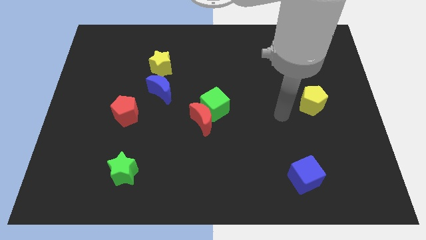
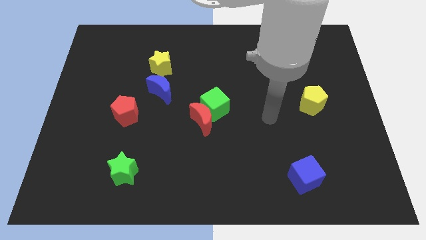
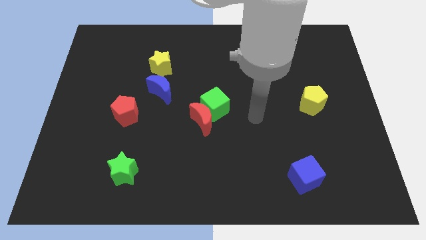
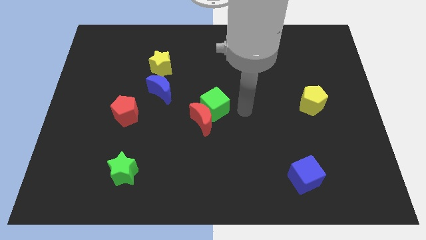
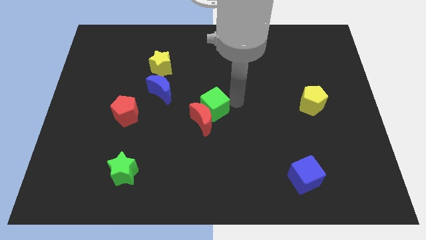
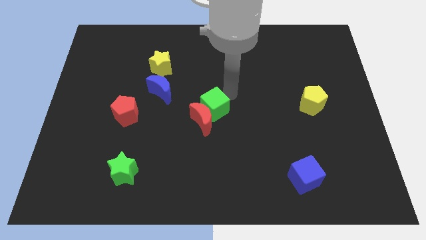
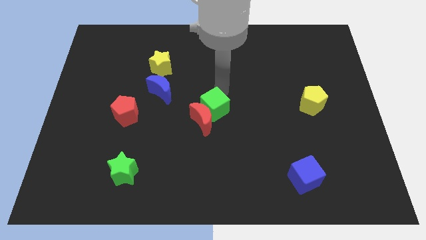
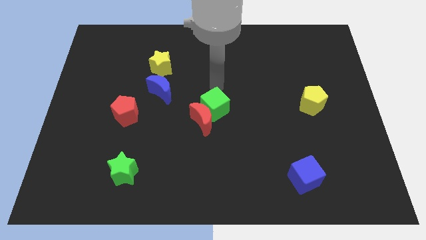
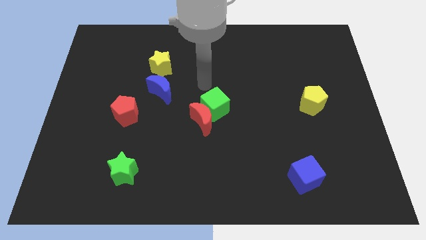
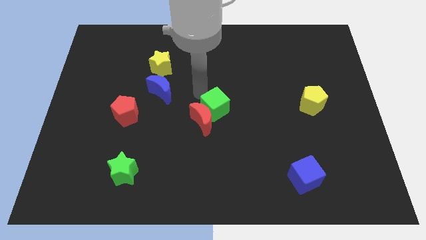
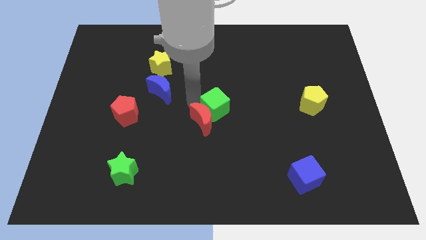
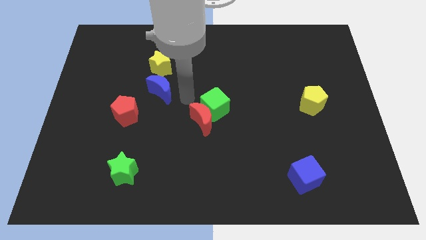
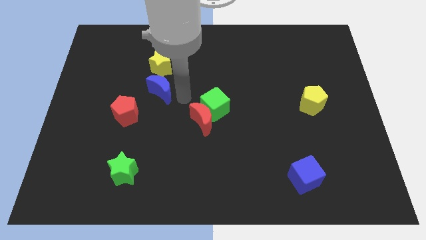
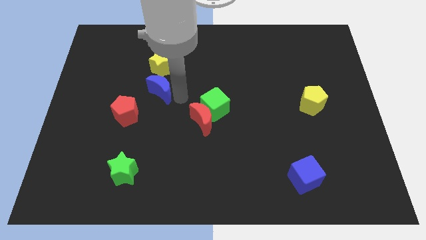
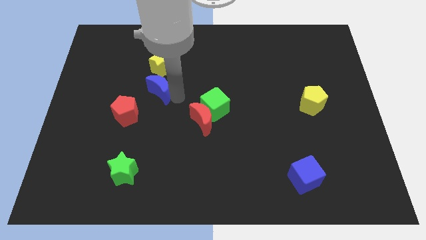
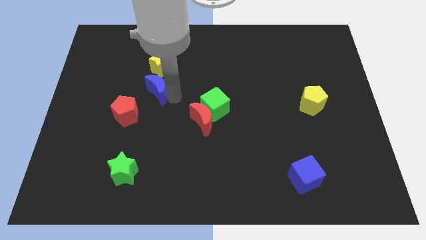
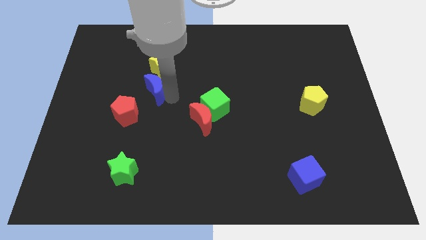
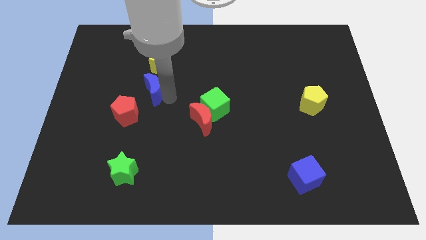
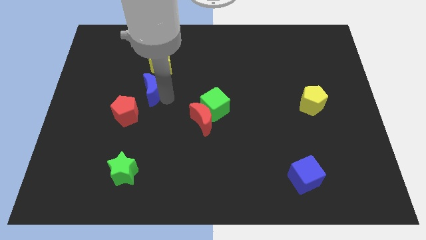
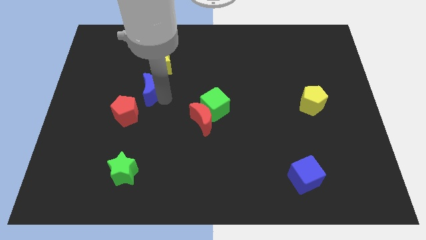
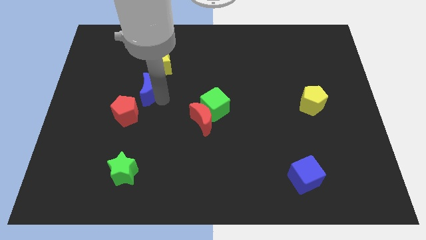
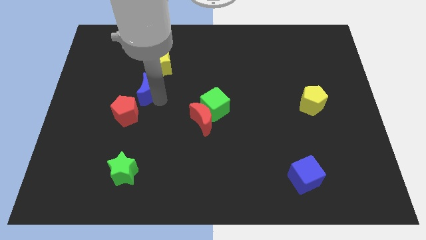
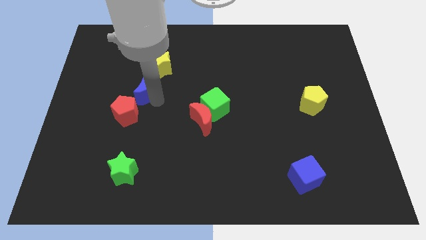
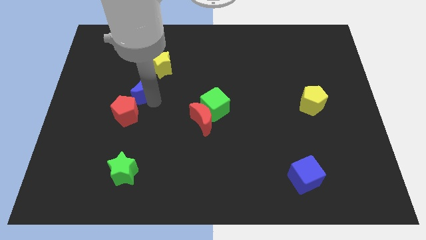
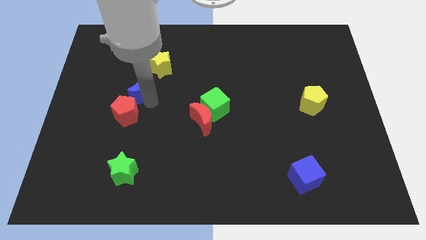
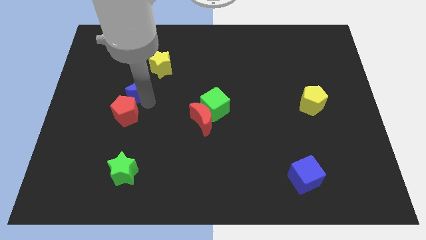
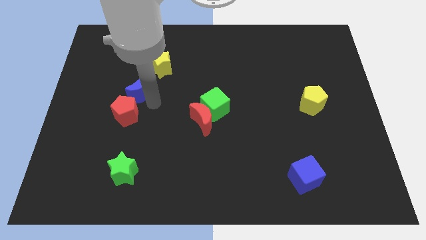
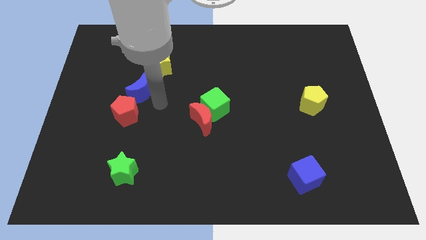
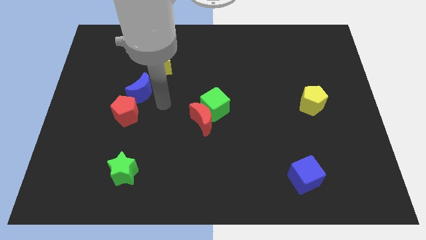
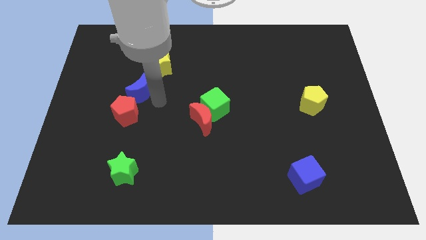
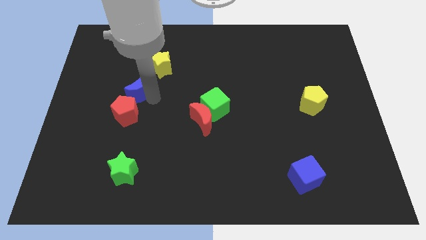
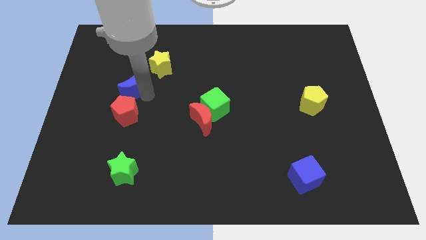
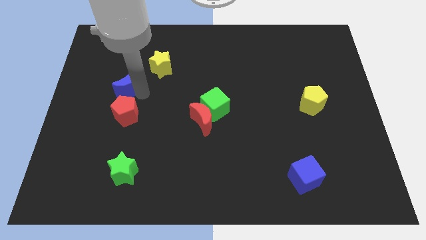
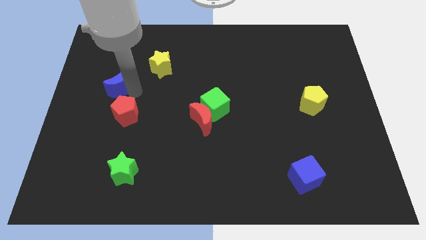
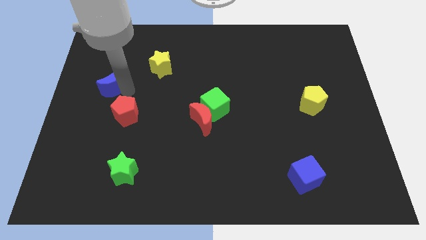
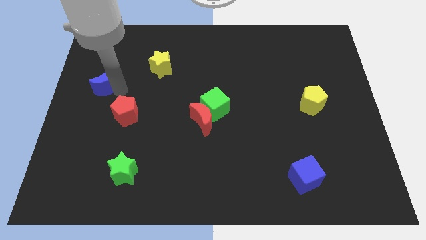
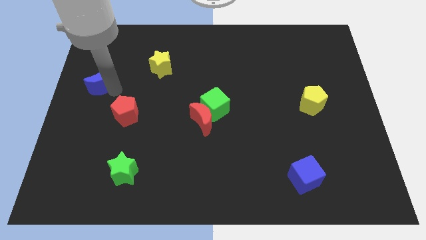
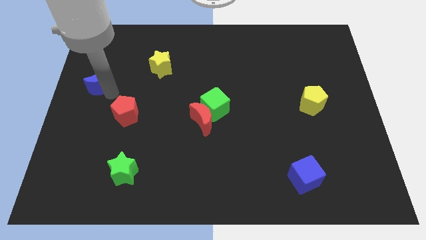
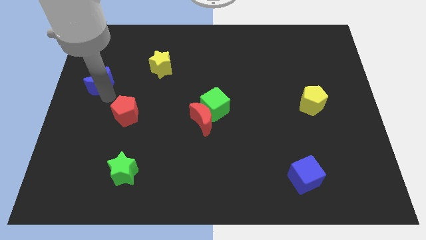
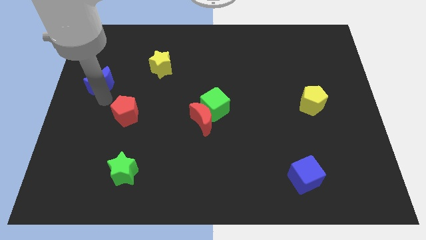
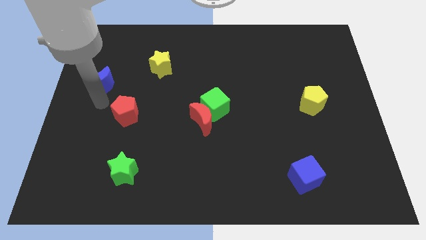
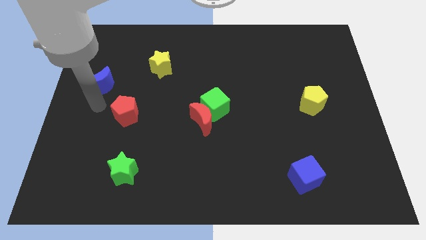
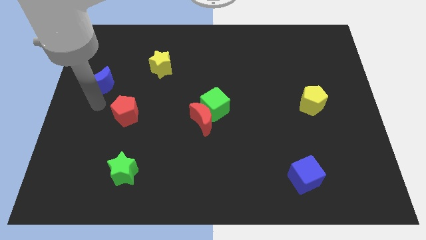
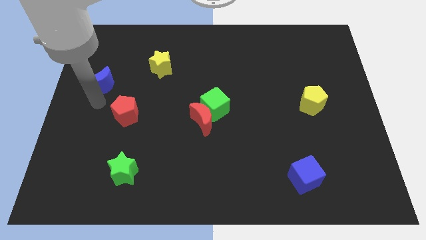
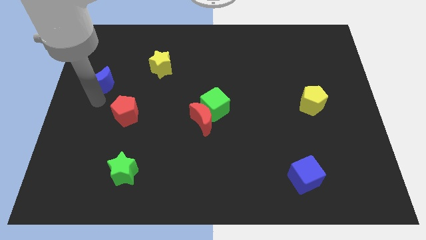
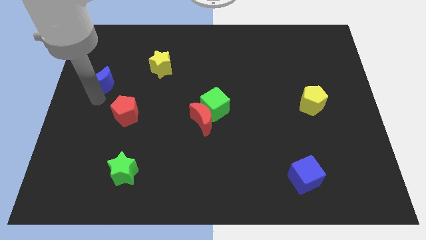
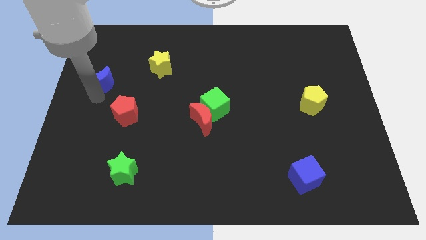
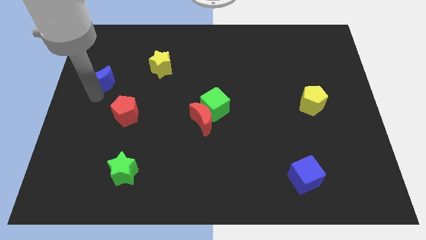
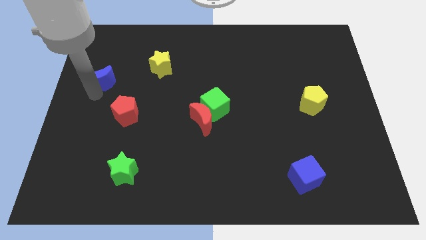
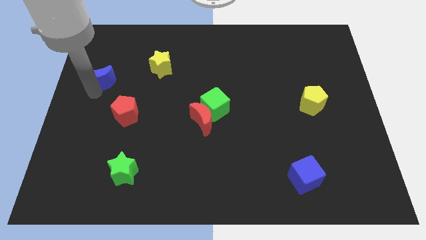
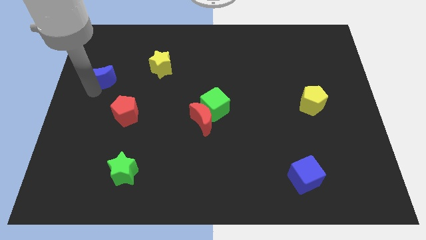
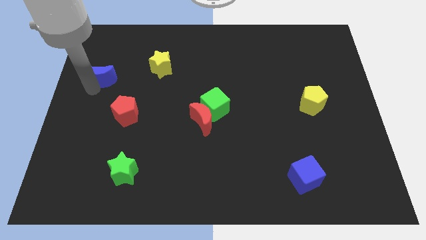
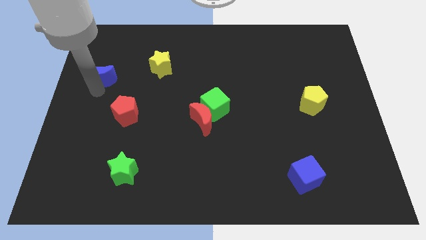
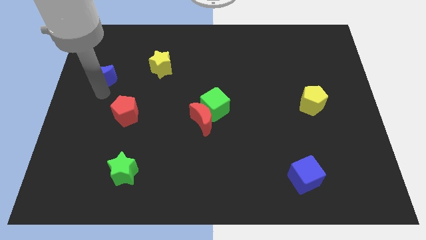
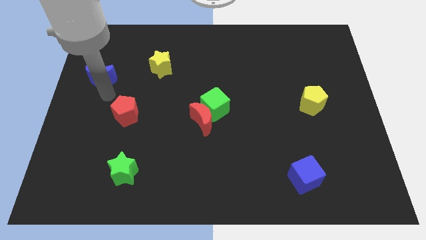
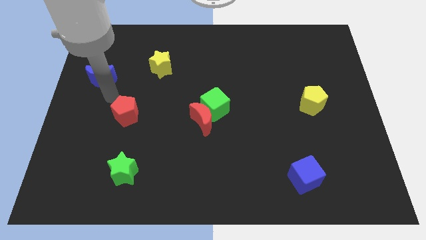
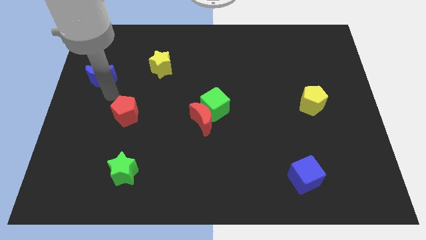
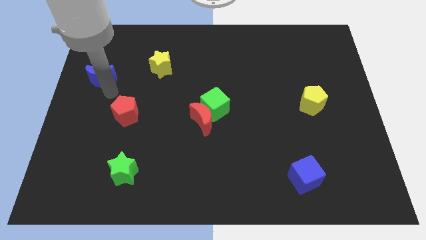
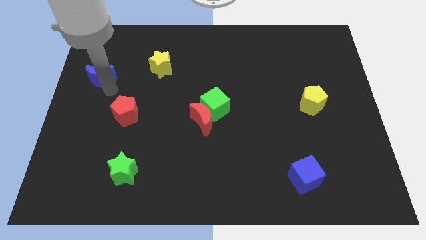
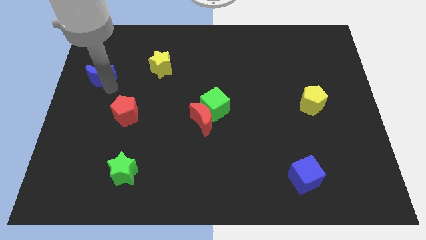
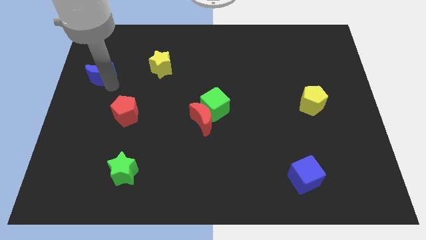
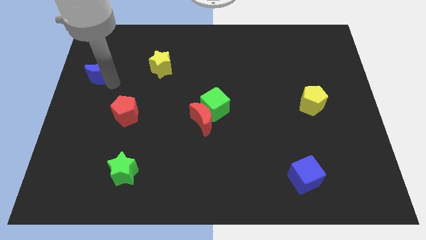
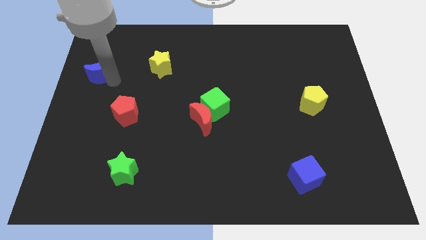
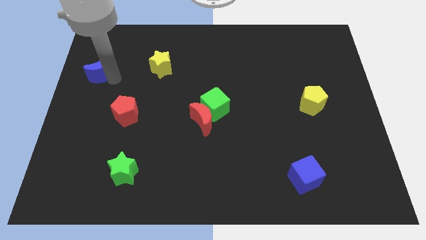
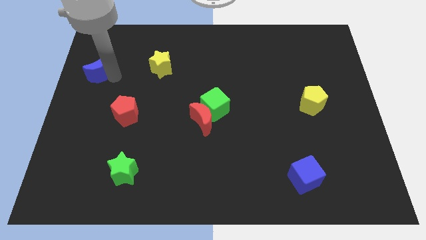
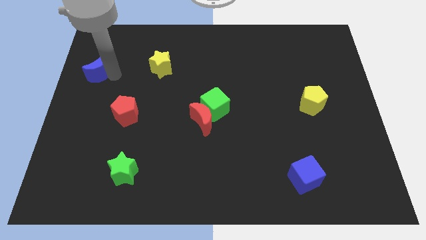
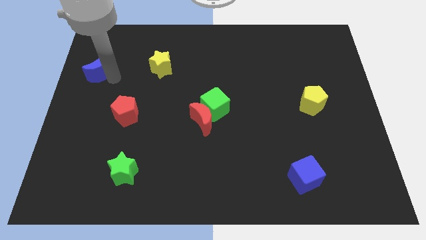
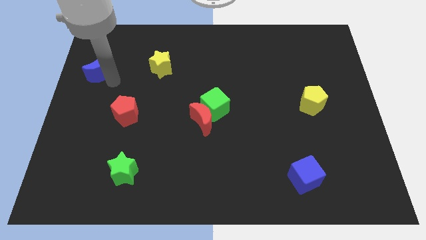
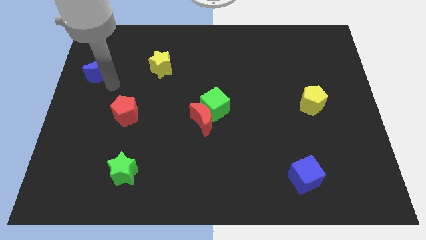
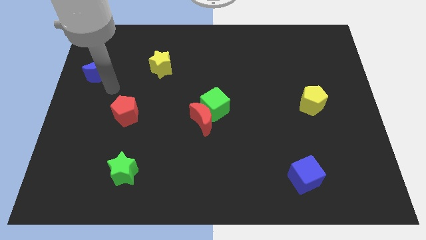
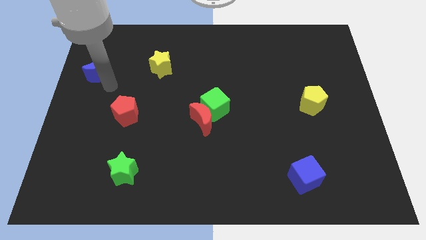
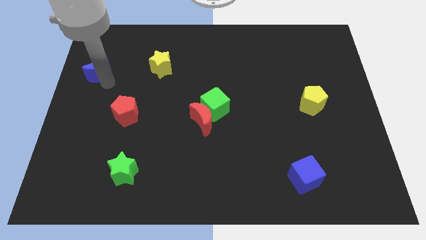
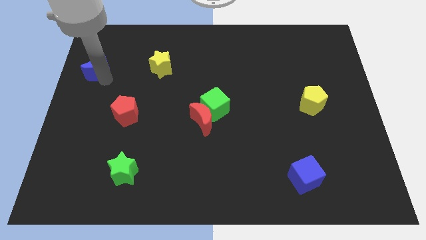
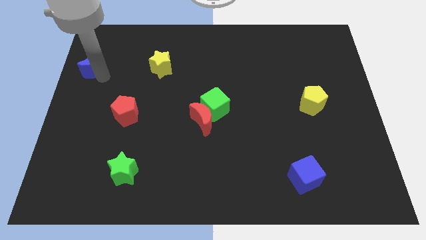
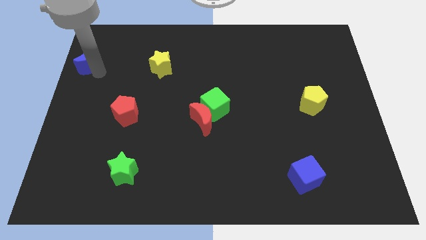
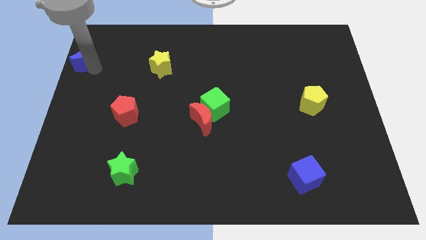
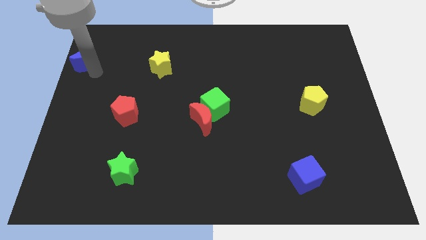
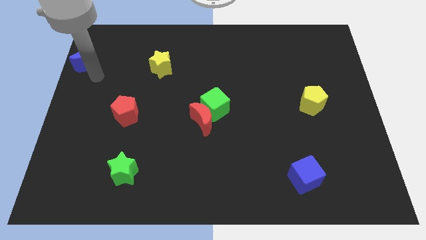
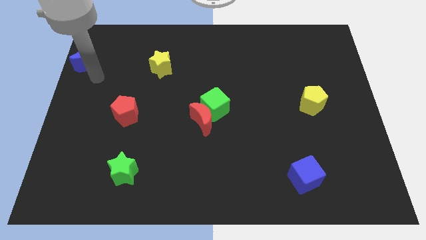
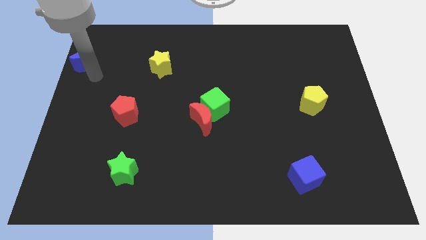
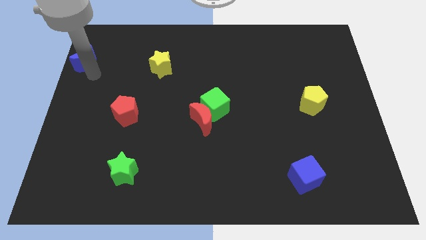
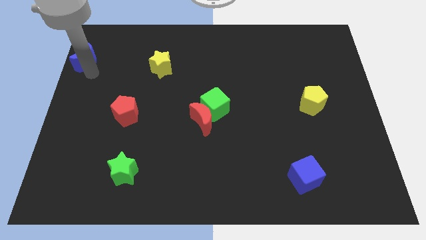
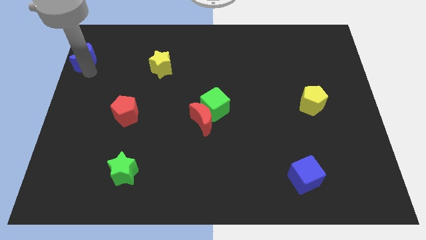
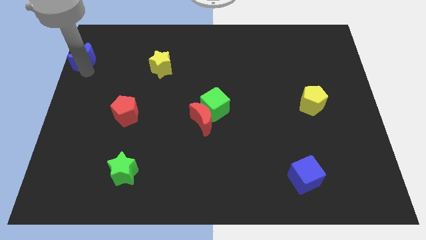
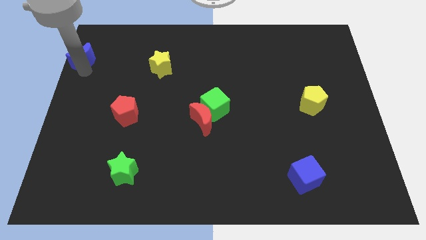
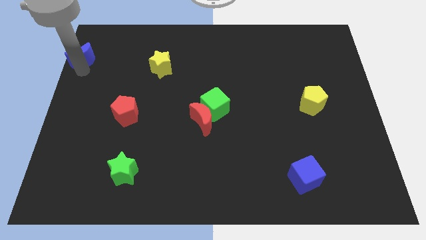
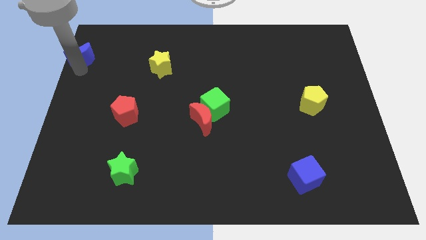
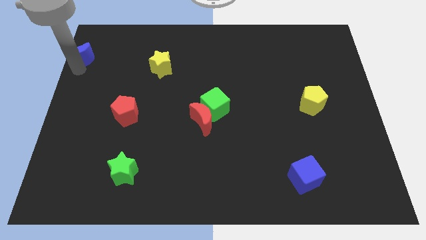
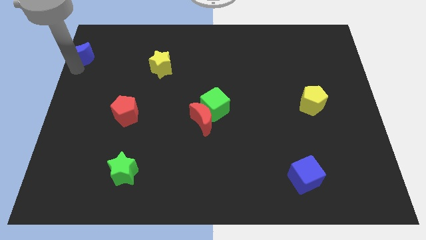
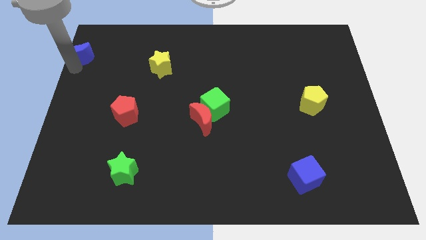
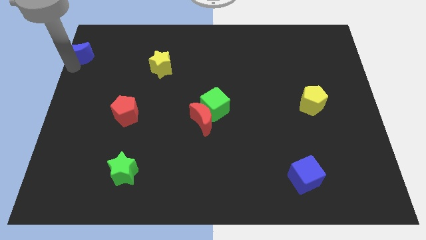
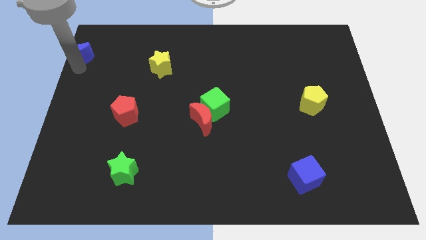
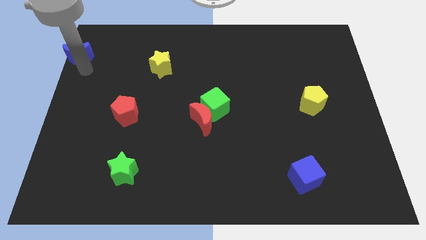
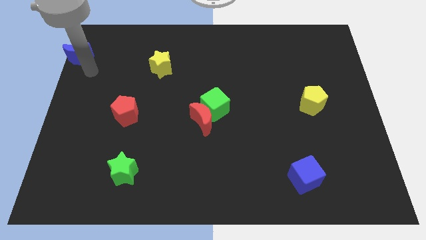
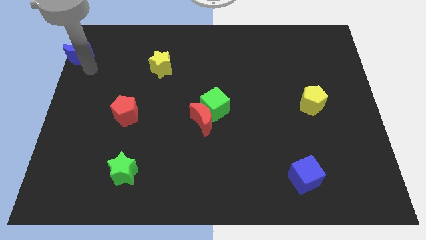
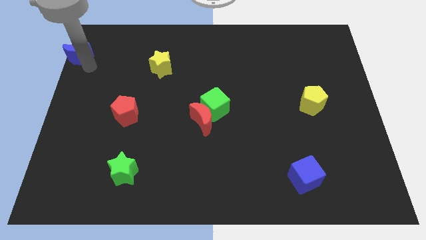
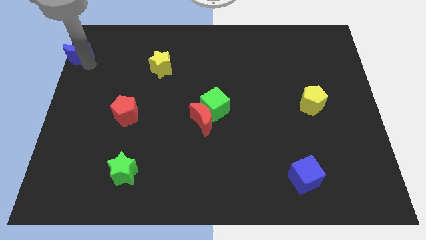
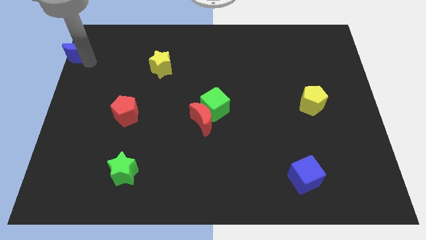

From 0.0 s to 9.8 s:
slide the blue moon to the top left
